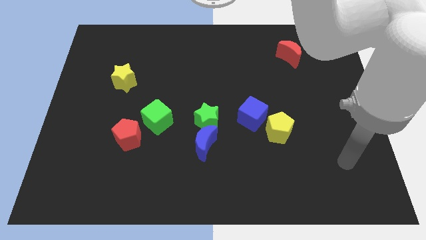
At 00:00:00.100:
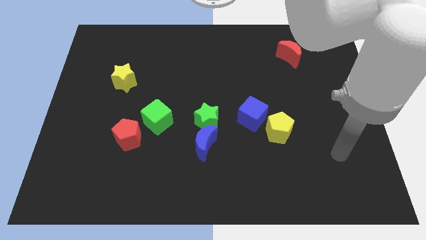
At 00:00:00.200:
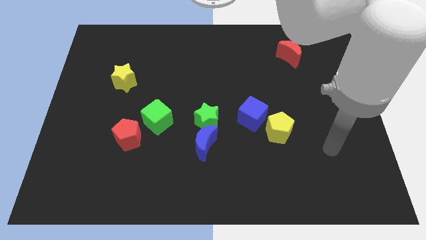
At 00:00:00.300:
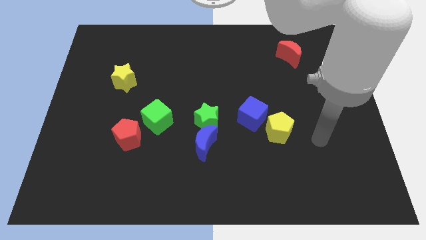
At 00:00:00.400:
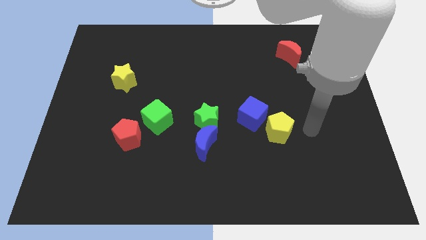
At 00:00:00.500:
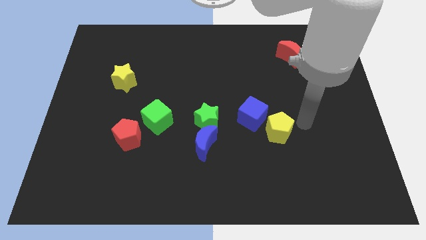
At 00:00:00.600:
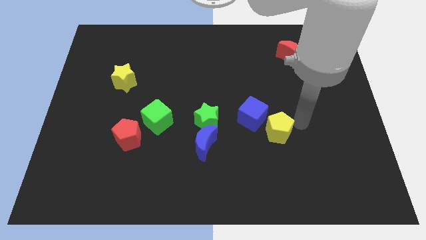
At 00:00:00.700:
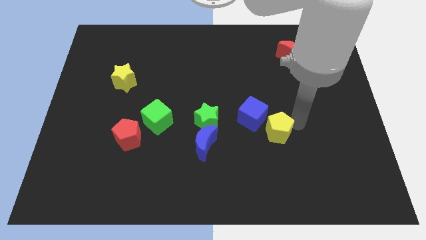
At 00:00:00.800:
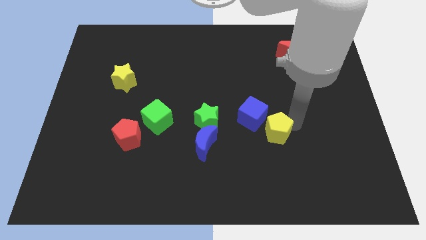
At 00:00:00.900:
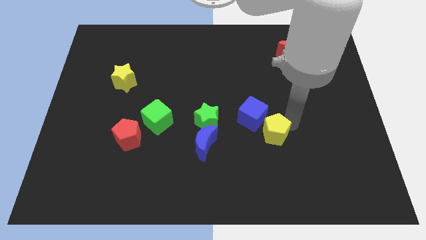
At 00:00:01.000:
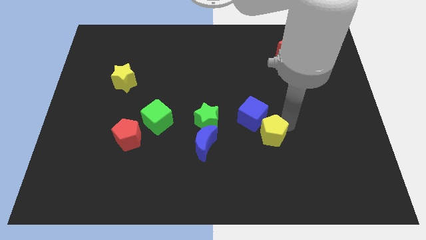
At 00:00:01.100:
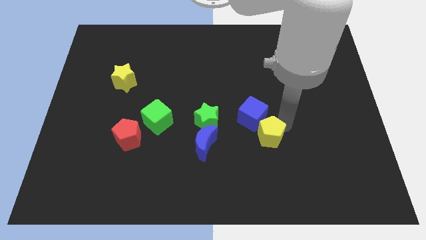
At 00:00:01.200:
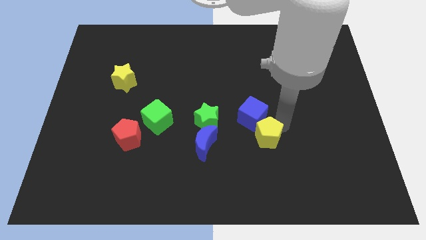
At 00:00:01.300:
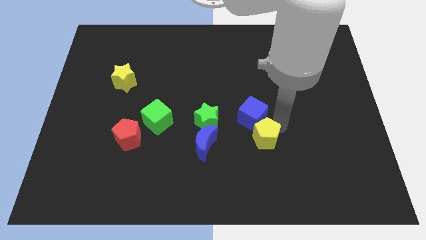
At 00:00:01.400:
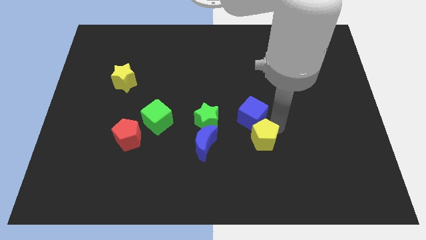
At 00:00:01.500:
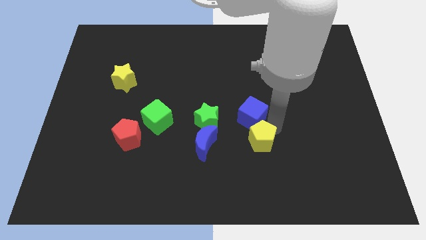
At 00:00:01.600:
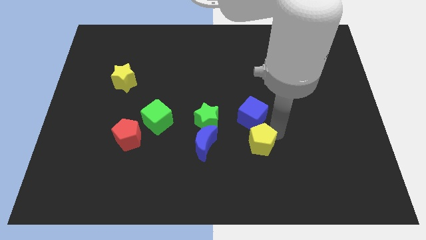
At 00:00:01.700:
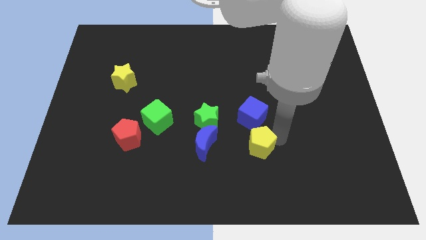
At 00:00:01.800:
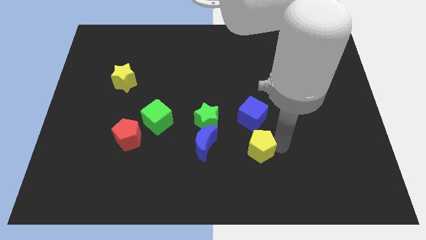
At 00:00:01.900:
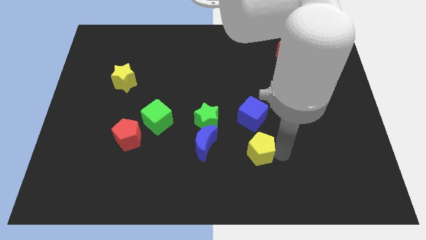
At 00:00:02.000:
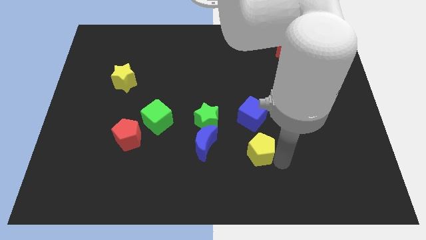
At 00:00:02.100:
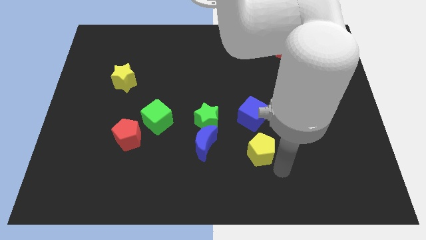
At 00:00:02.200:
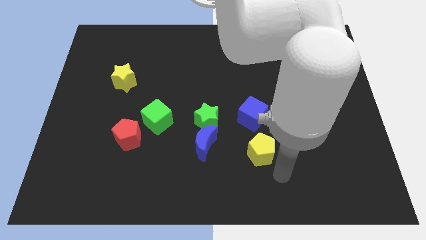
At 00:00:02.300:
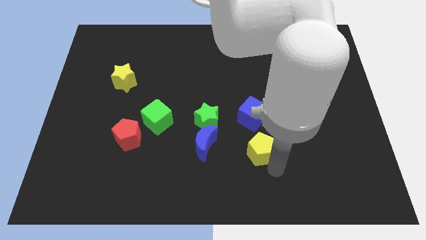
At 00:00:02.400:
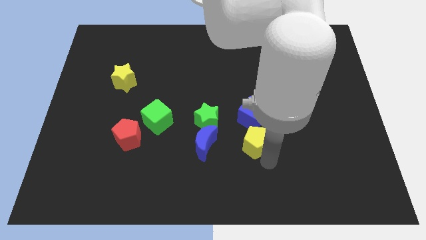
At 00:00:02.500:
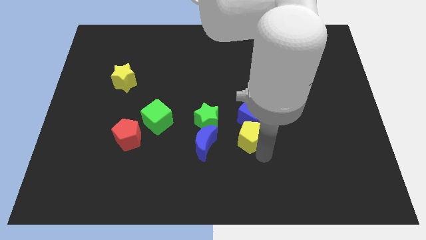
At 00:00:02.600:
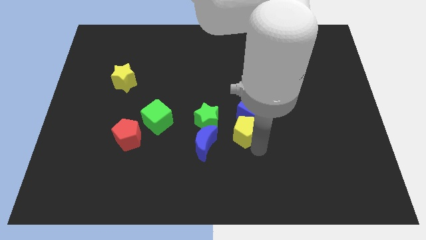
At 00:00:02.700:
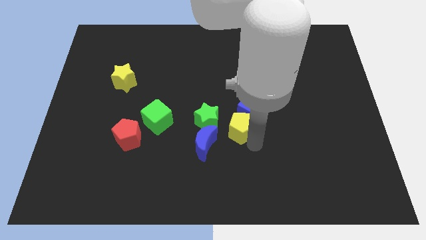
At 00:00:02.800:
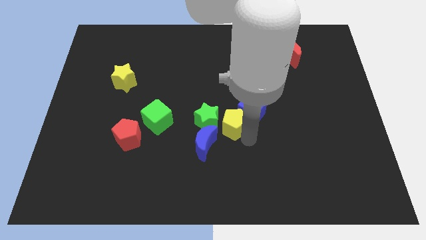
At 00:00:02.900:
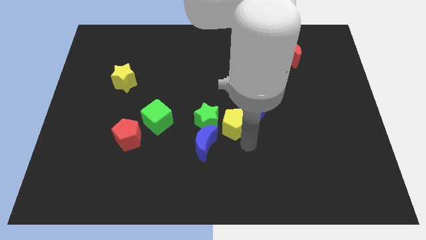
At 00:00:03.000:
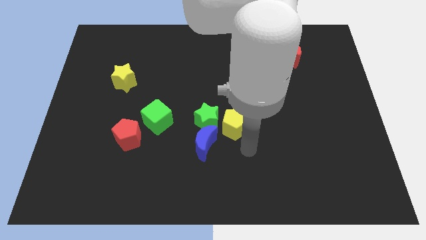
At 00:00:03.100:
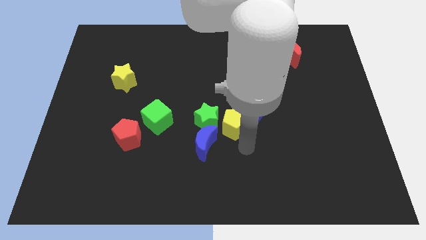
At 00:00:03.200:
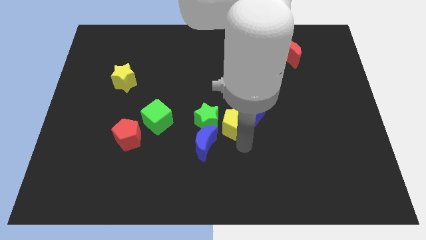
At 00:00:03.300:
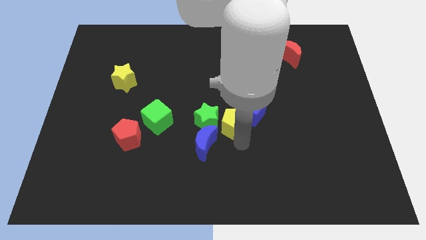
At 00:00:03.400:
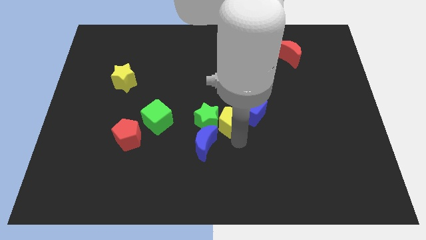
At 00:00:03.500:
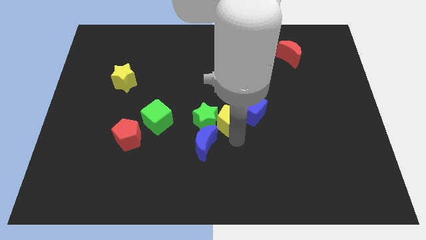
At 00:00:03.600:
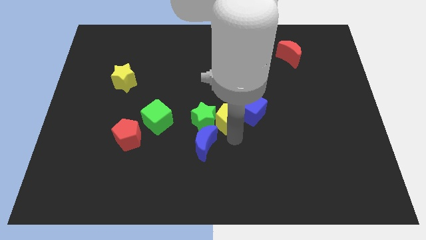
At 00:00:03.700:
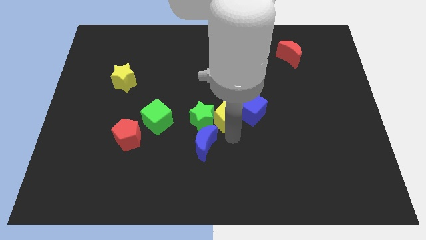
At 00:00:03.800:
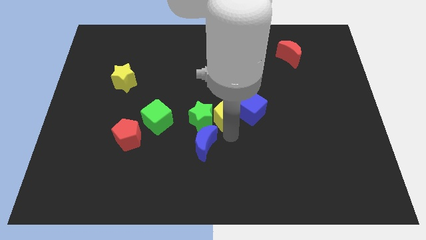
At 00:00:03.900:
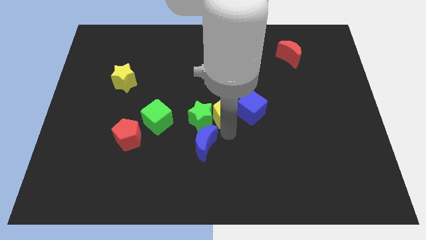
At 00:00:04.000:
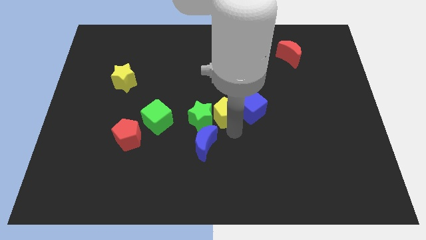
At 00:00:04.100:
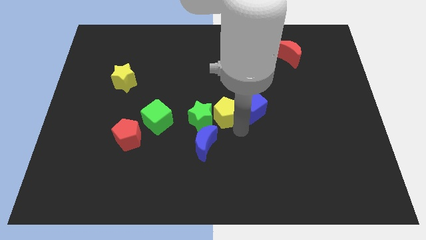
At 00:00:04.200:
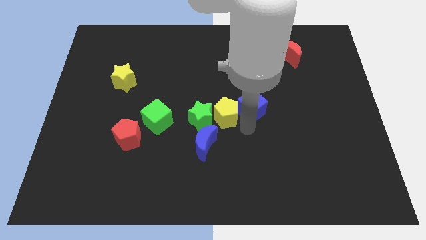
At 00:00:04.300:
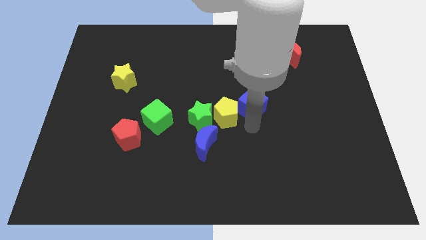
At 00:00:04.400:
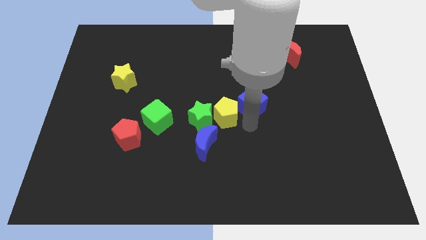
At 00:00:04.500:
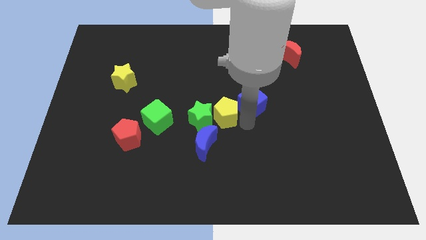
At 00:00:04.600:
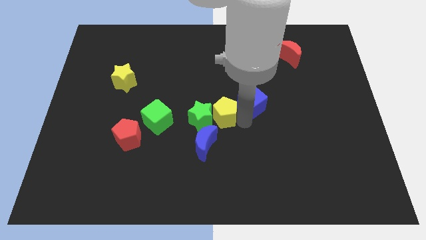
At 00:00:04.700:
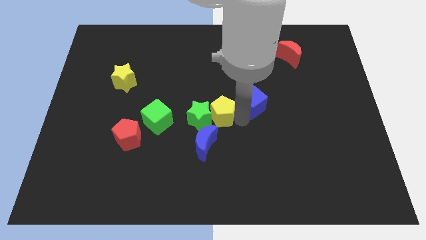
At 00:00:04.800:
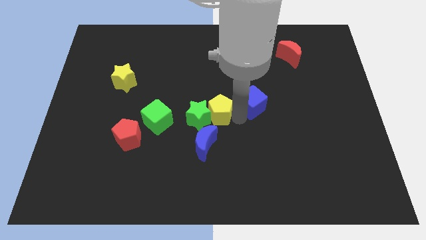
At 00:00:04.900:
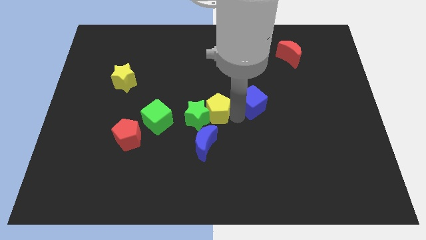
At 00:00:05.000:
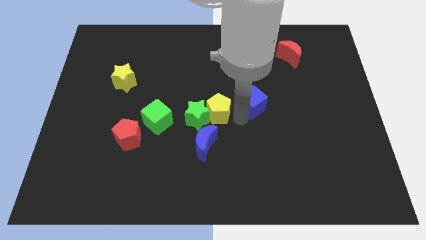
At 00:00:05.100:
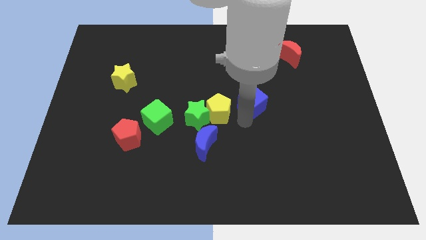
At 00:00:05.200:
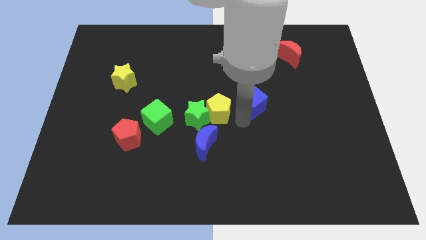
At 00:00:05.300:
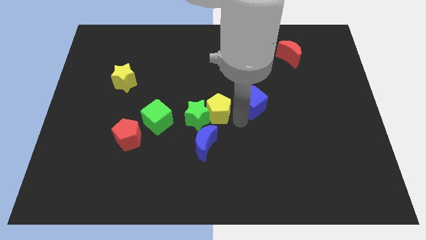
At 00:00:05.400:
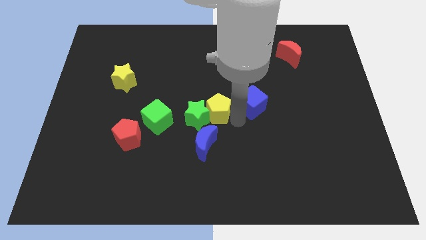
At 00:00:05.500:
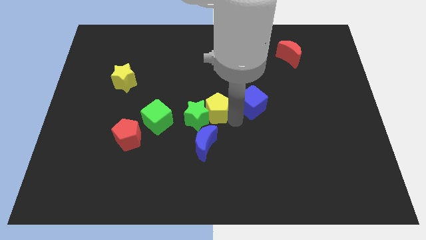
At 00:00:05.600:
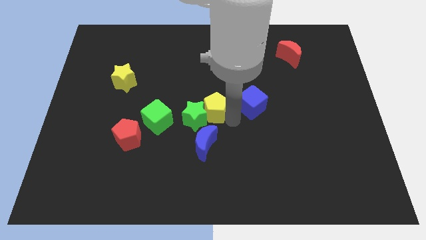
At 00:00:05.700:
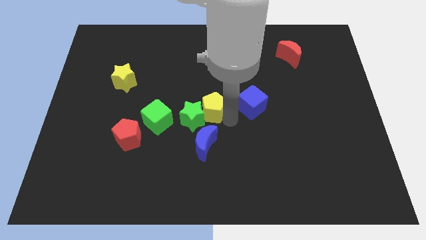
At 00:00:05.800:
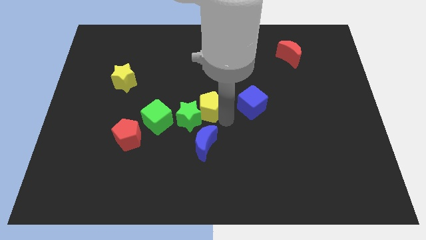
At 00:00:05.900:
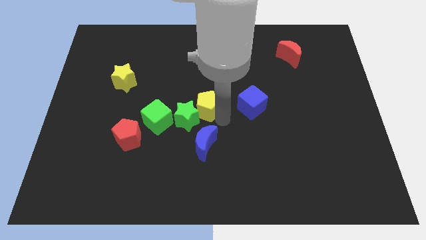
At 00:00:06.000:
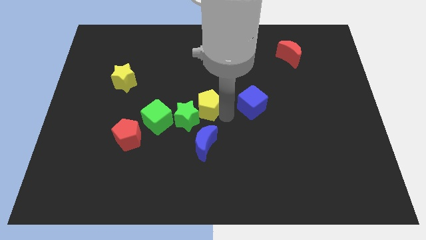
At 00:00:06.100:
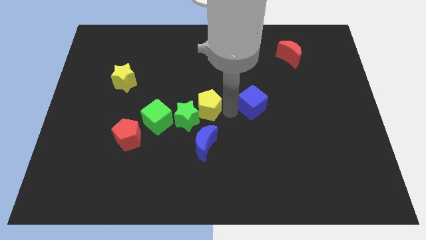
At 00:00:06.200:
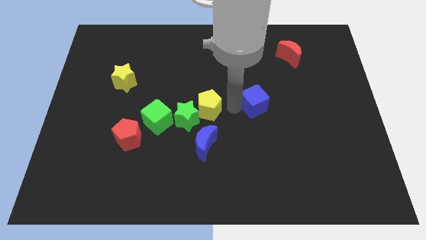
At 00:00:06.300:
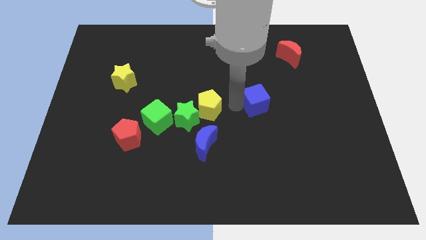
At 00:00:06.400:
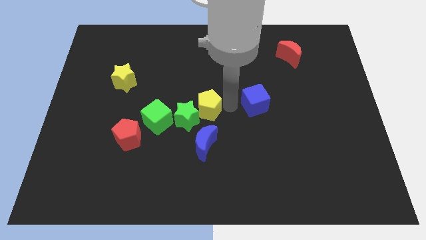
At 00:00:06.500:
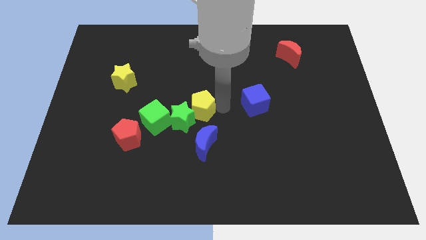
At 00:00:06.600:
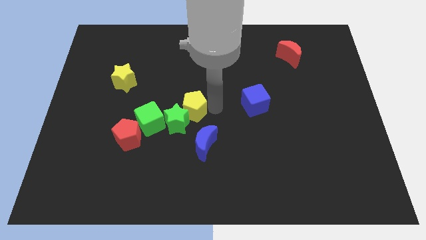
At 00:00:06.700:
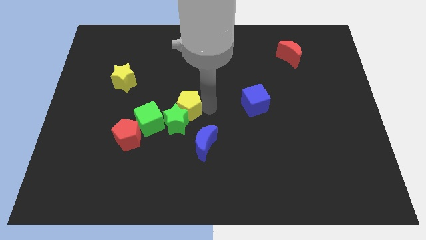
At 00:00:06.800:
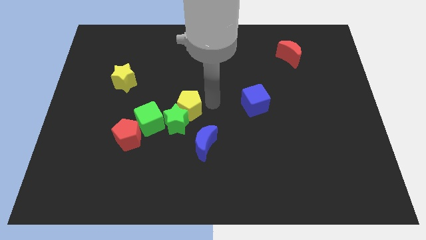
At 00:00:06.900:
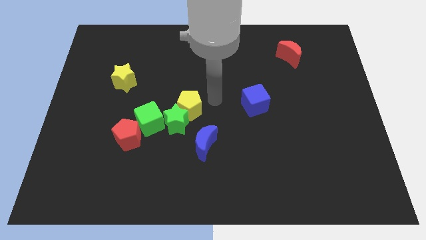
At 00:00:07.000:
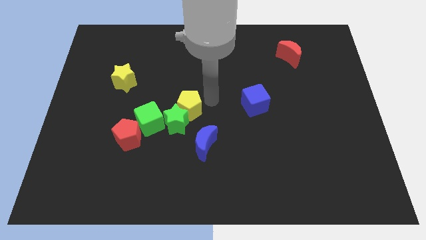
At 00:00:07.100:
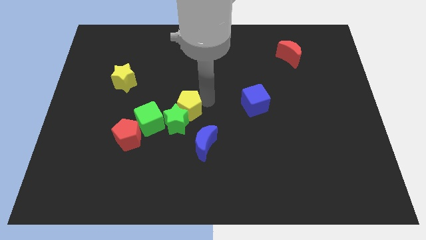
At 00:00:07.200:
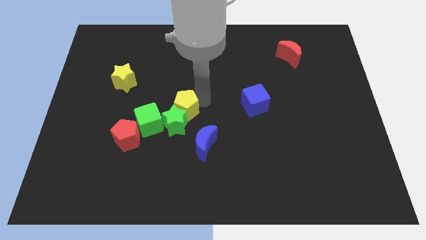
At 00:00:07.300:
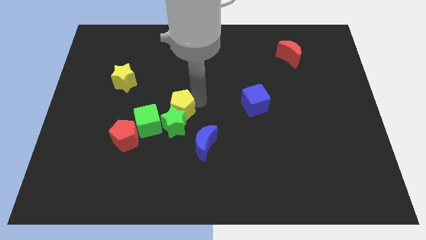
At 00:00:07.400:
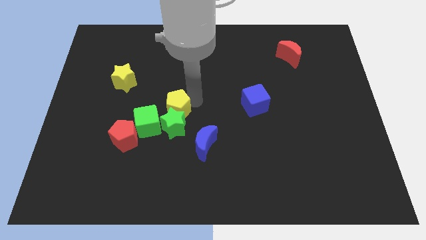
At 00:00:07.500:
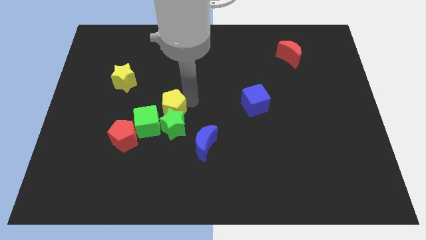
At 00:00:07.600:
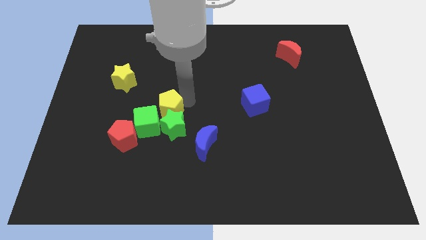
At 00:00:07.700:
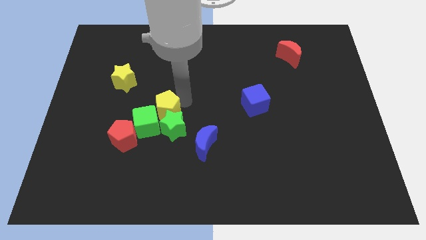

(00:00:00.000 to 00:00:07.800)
push the yellow pentagon next to the green cube

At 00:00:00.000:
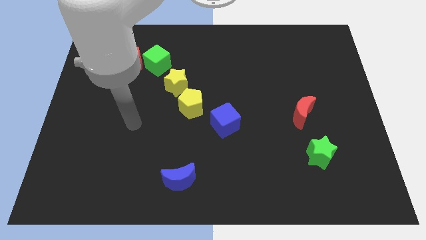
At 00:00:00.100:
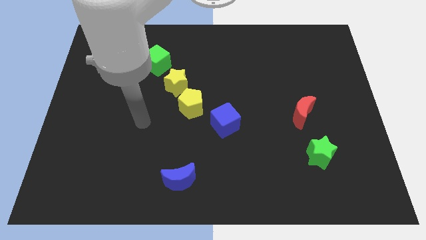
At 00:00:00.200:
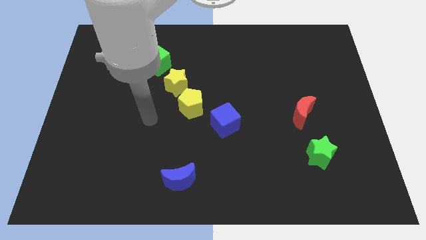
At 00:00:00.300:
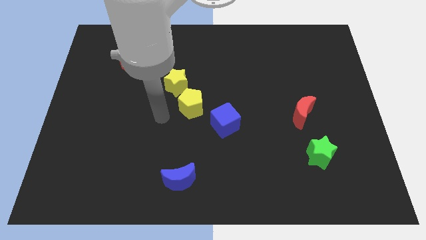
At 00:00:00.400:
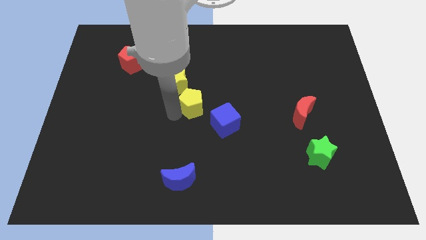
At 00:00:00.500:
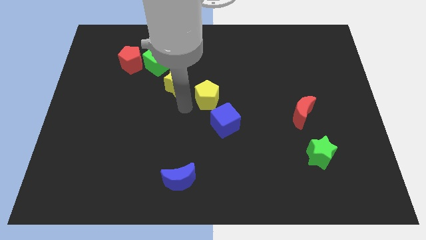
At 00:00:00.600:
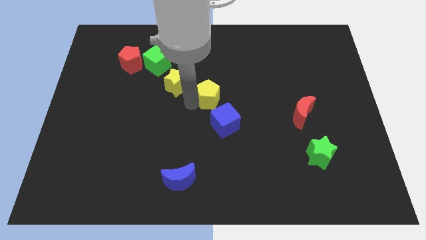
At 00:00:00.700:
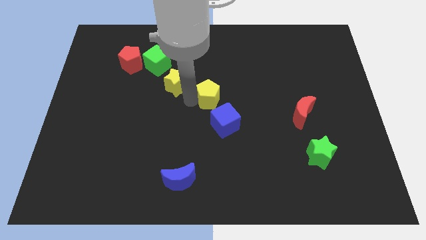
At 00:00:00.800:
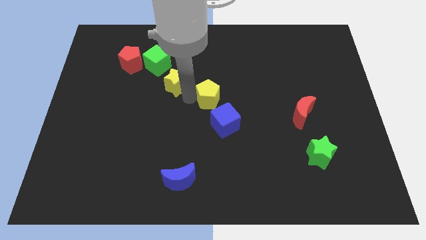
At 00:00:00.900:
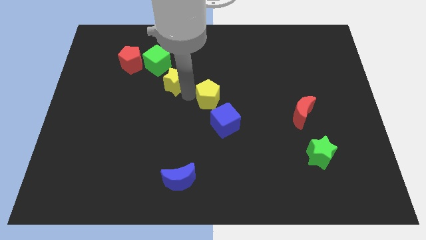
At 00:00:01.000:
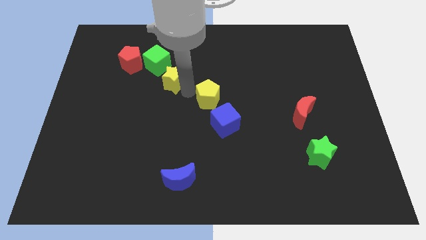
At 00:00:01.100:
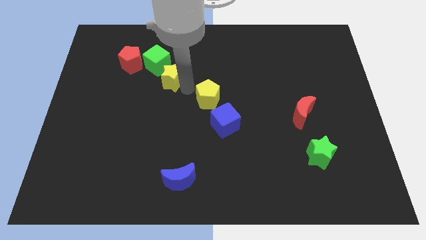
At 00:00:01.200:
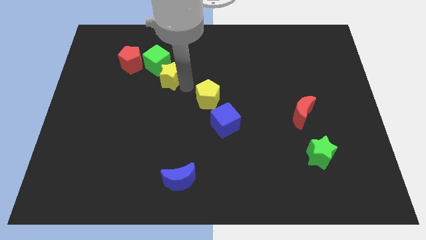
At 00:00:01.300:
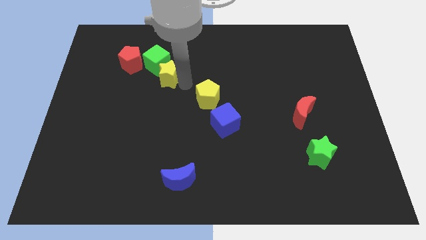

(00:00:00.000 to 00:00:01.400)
push the yellow star next to the green cube
